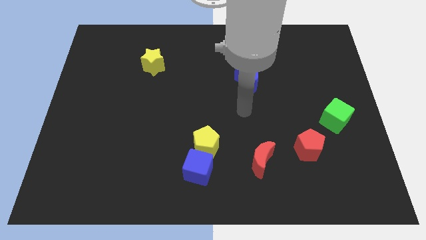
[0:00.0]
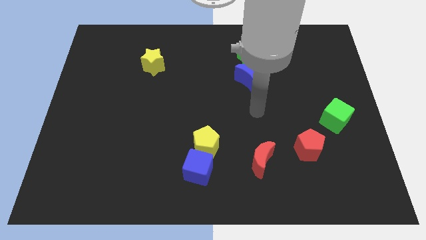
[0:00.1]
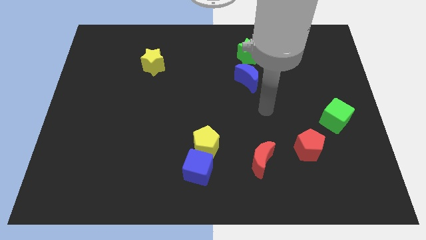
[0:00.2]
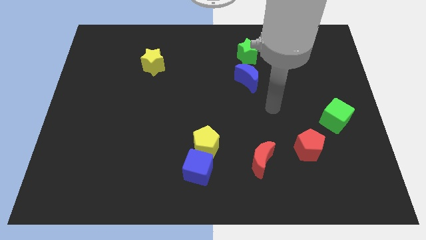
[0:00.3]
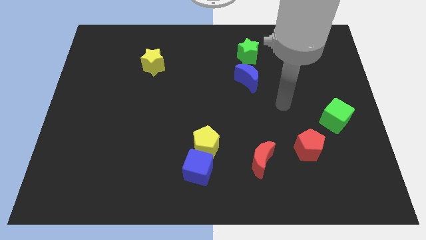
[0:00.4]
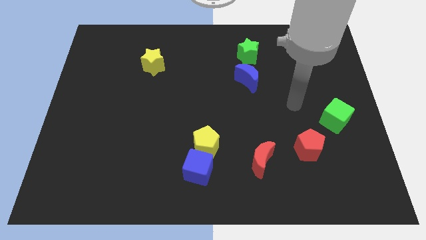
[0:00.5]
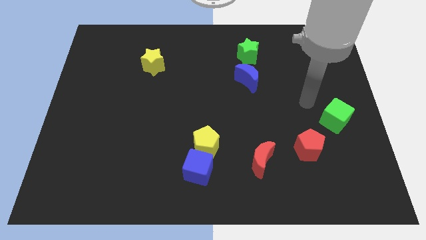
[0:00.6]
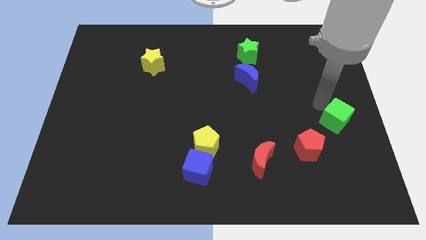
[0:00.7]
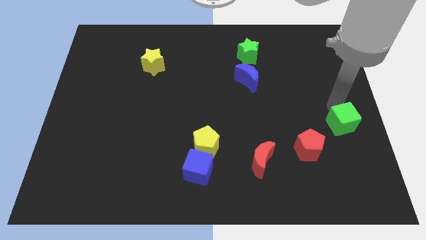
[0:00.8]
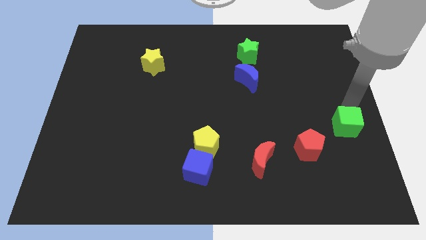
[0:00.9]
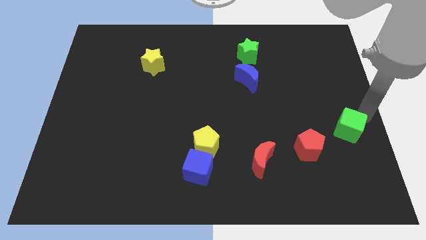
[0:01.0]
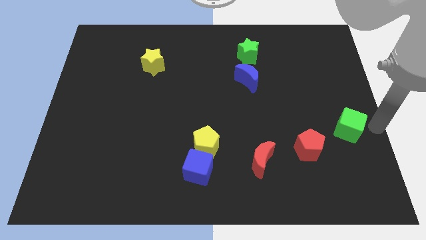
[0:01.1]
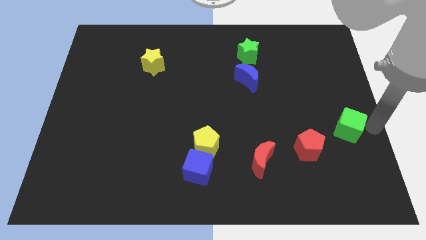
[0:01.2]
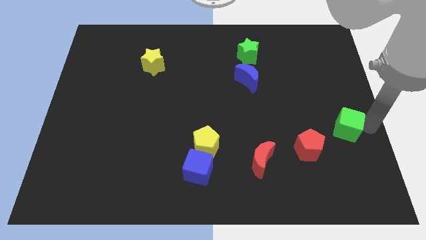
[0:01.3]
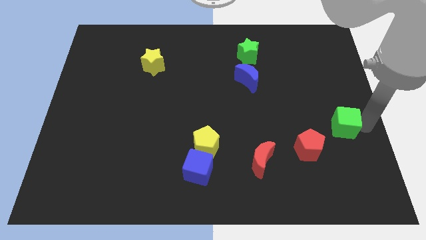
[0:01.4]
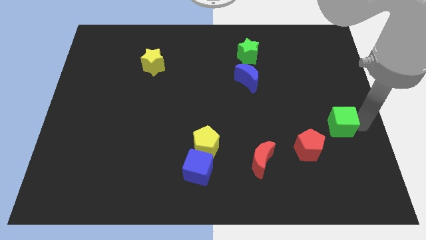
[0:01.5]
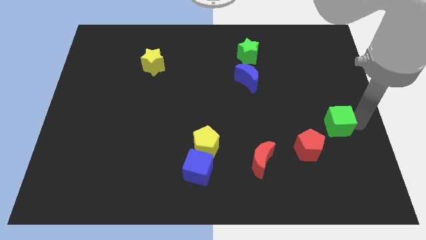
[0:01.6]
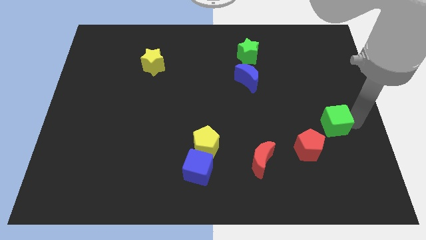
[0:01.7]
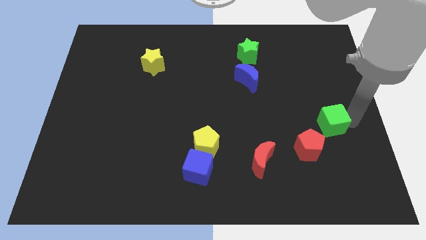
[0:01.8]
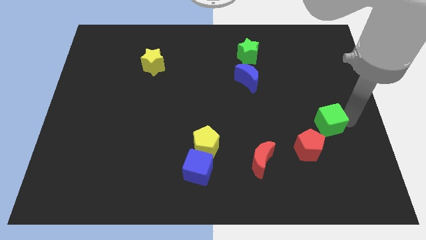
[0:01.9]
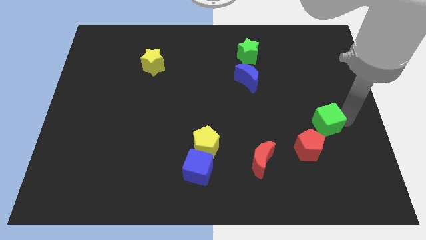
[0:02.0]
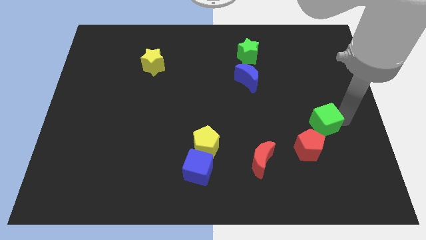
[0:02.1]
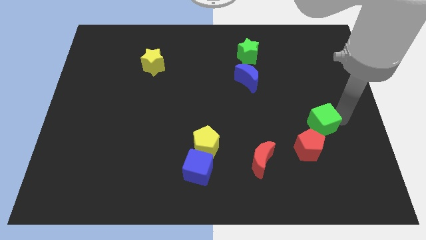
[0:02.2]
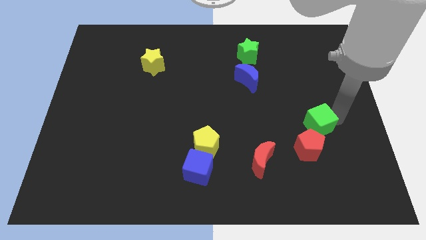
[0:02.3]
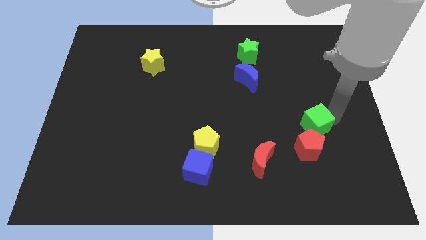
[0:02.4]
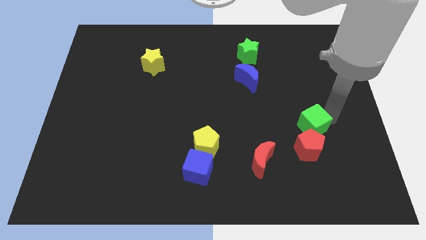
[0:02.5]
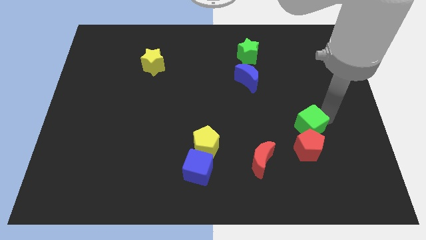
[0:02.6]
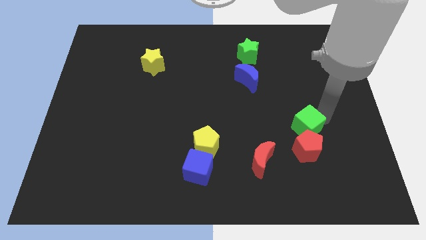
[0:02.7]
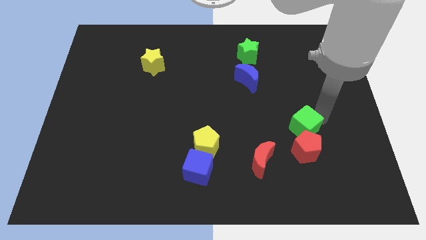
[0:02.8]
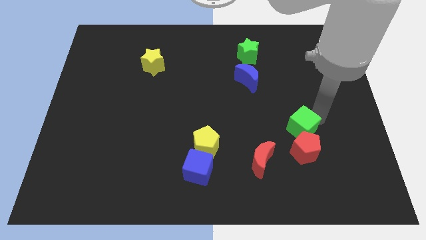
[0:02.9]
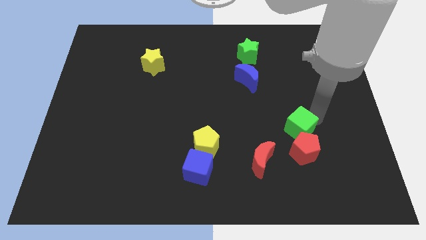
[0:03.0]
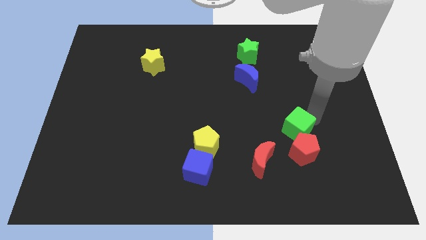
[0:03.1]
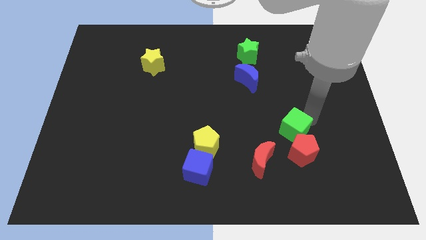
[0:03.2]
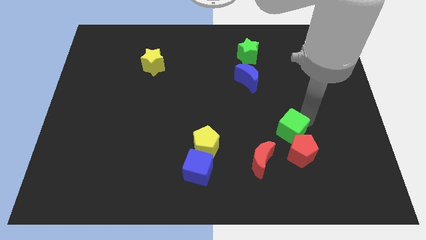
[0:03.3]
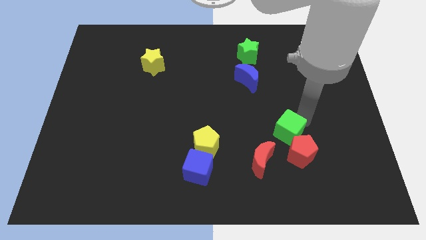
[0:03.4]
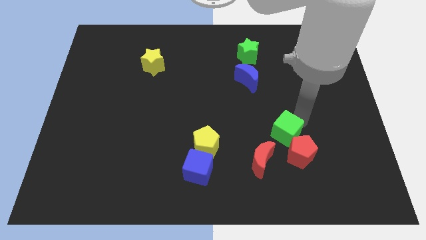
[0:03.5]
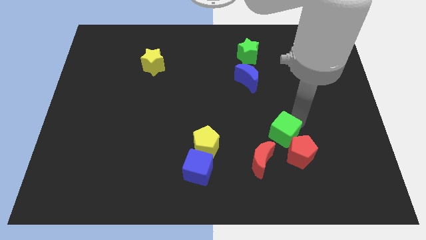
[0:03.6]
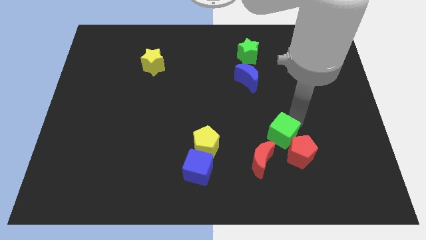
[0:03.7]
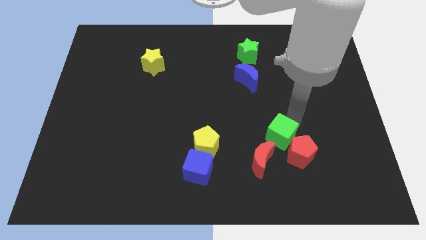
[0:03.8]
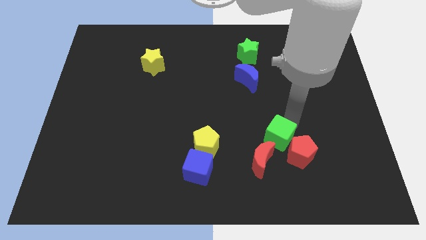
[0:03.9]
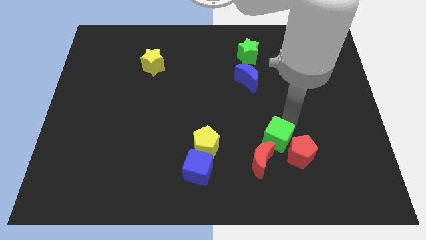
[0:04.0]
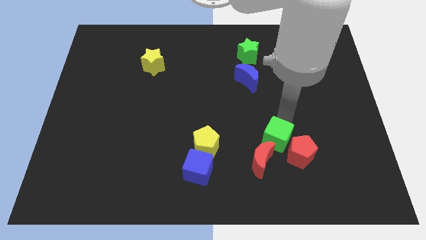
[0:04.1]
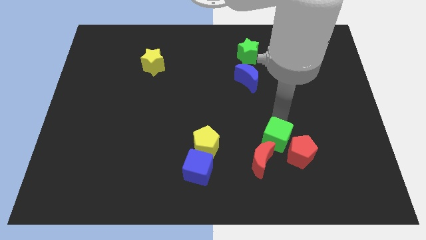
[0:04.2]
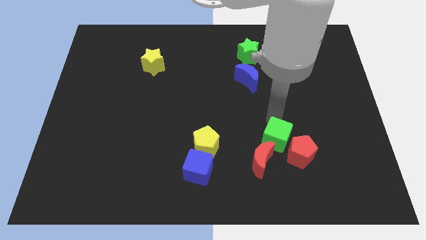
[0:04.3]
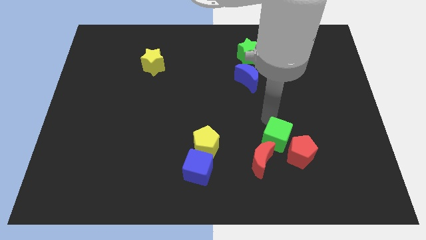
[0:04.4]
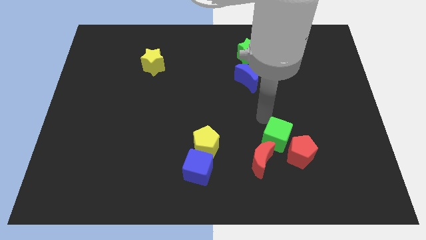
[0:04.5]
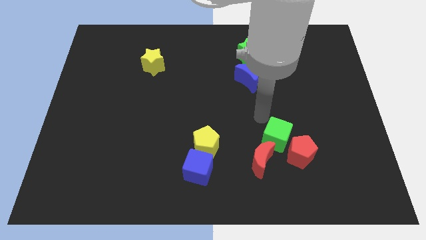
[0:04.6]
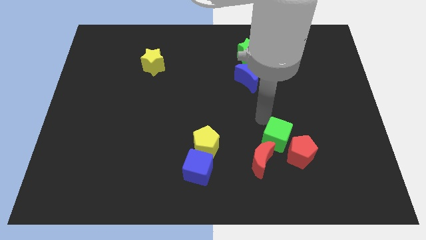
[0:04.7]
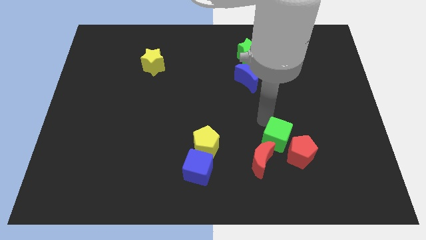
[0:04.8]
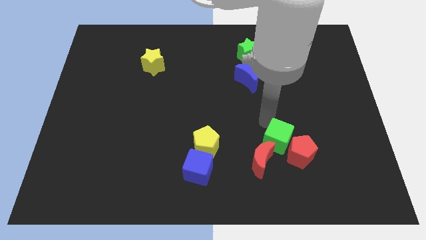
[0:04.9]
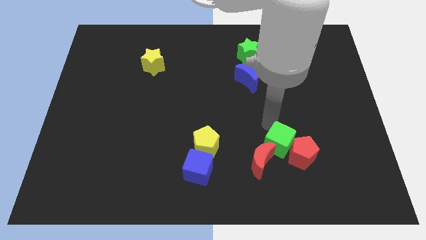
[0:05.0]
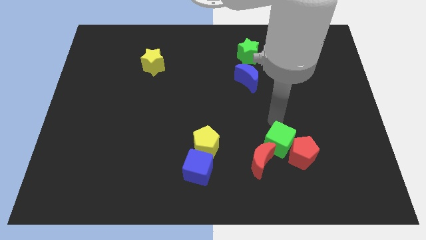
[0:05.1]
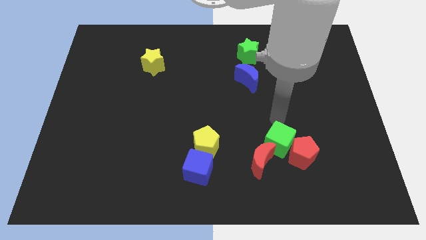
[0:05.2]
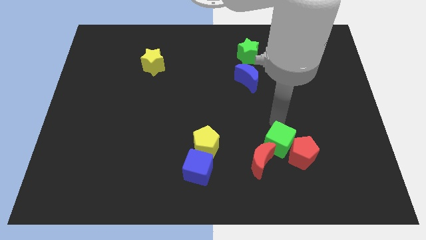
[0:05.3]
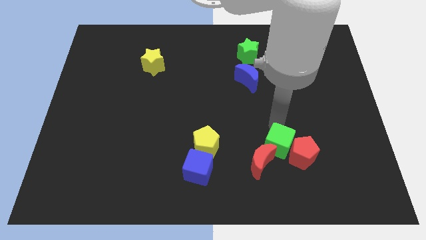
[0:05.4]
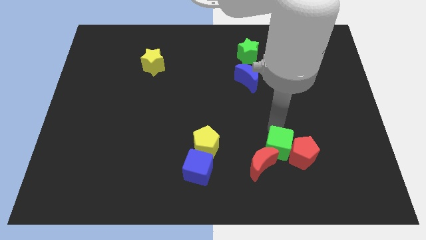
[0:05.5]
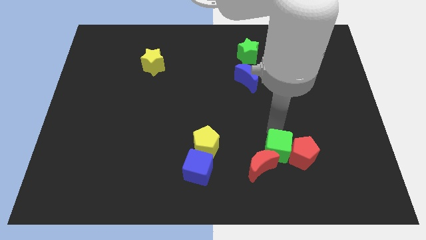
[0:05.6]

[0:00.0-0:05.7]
slide the green cube diagonally down and to the left of the red pentagon

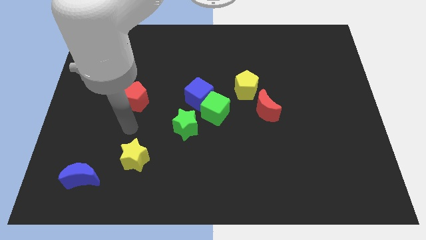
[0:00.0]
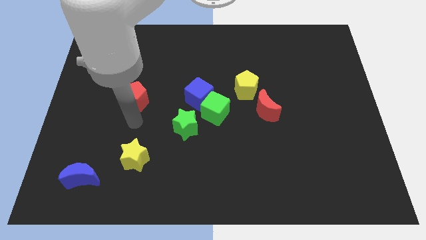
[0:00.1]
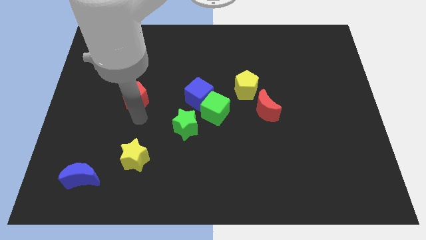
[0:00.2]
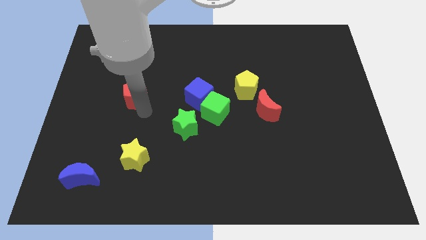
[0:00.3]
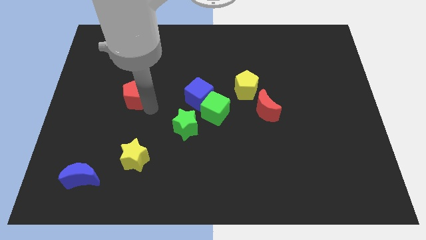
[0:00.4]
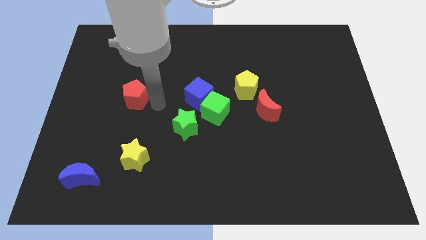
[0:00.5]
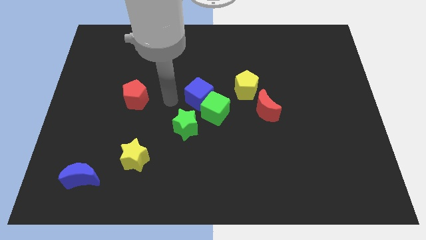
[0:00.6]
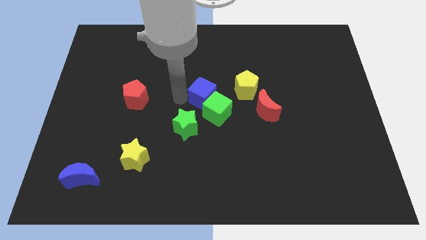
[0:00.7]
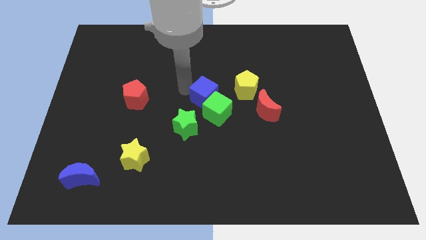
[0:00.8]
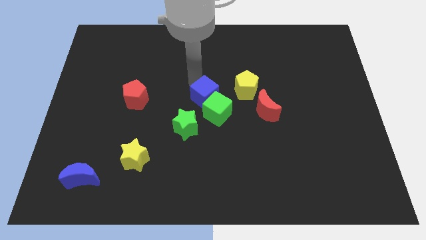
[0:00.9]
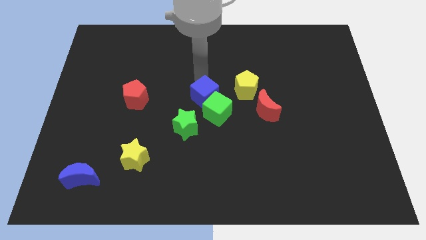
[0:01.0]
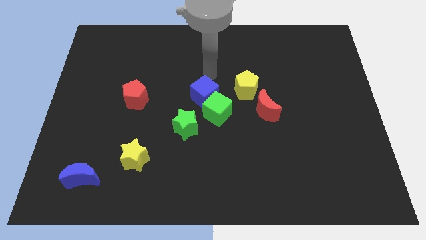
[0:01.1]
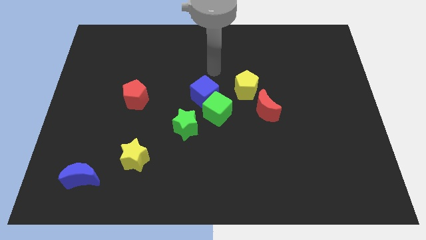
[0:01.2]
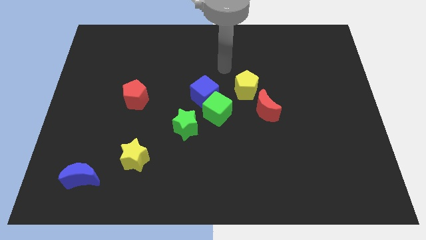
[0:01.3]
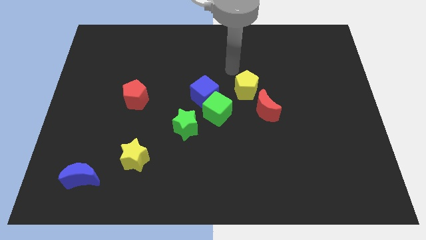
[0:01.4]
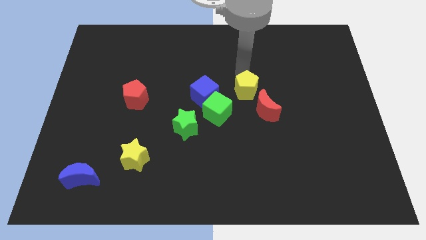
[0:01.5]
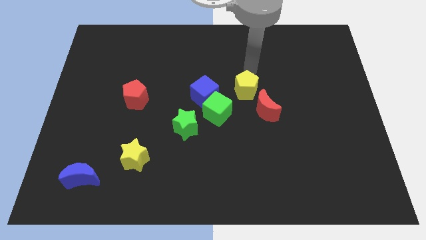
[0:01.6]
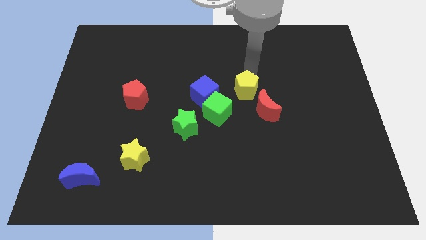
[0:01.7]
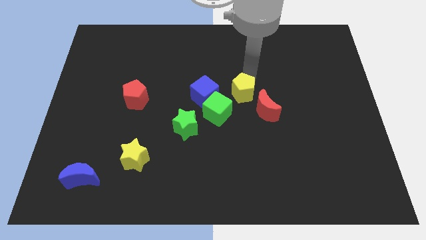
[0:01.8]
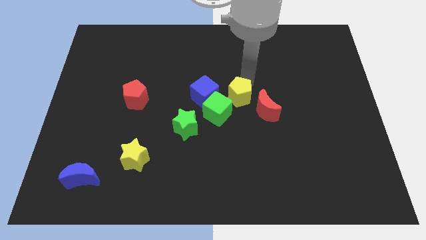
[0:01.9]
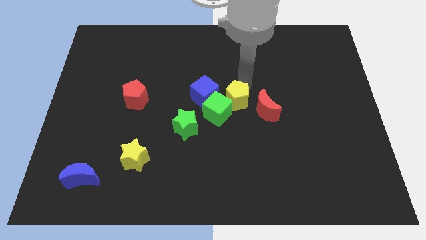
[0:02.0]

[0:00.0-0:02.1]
move the yellow pentagon diagonally down and to the right of the blue cube
